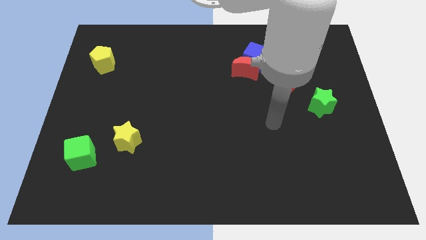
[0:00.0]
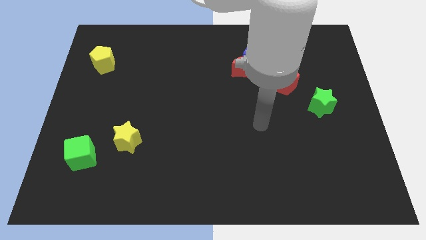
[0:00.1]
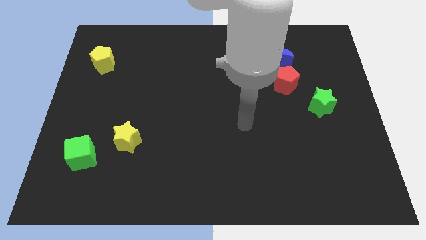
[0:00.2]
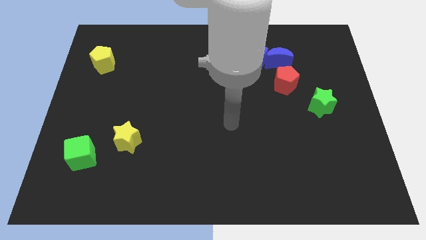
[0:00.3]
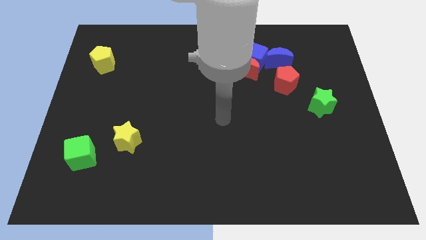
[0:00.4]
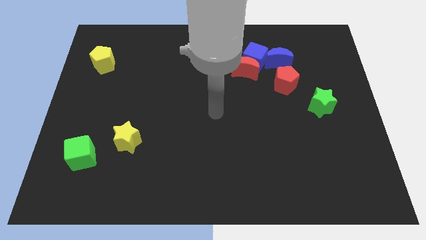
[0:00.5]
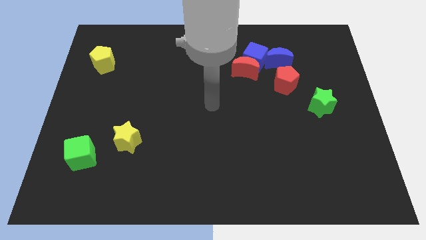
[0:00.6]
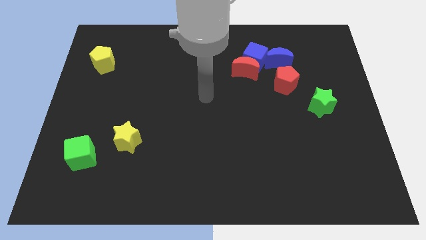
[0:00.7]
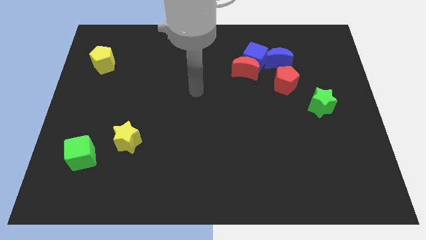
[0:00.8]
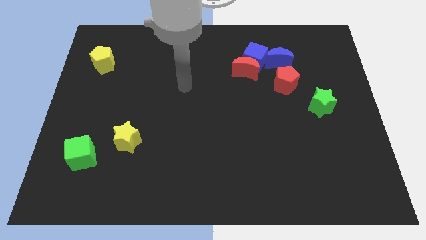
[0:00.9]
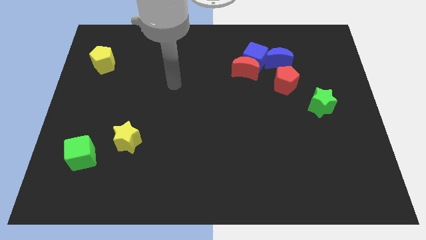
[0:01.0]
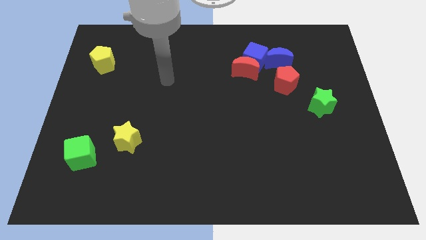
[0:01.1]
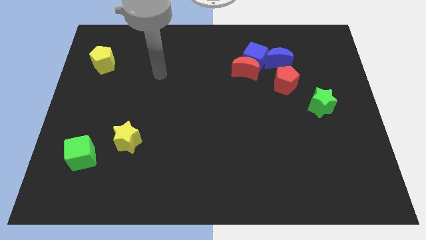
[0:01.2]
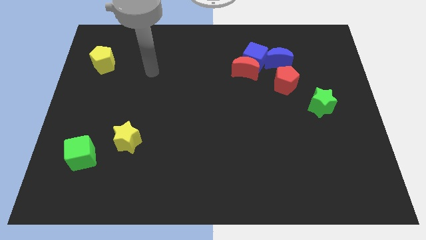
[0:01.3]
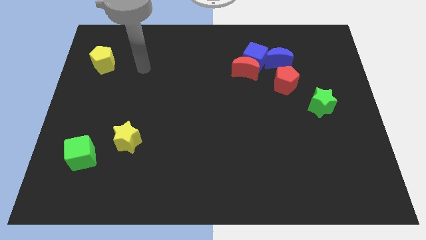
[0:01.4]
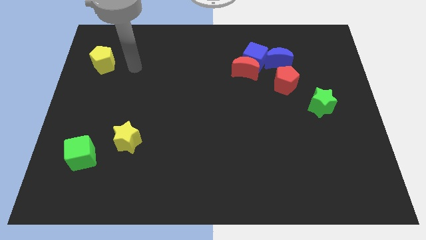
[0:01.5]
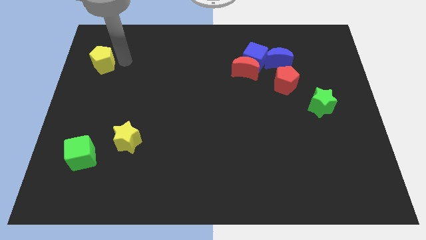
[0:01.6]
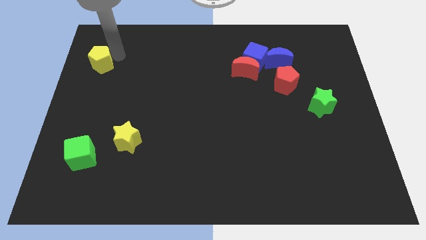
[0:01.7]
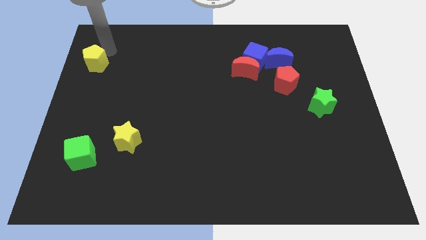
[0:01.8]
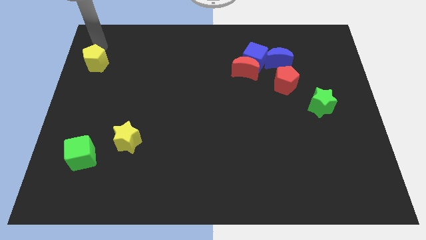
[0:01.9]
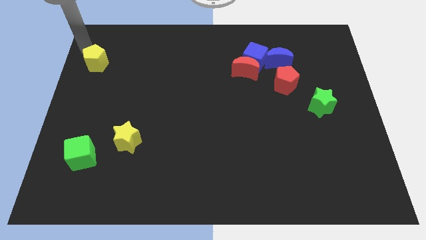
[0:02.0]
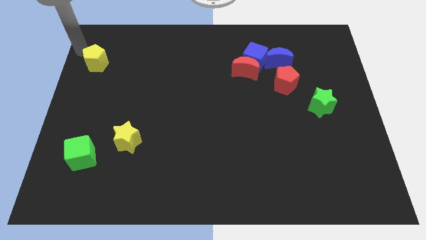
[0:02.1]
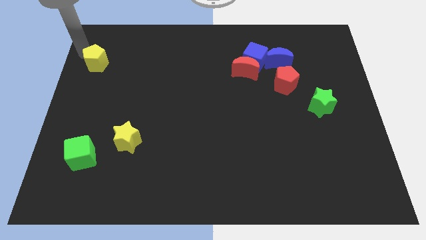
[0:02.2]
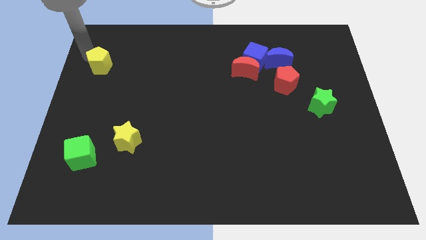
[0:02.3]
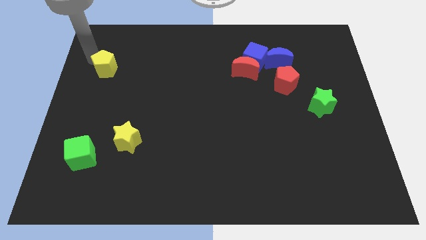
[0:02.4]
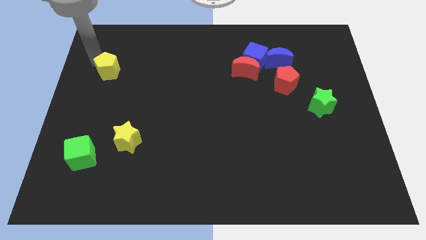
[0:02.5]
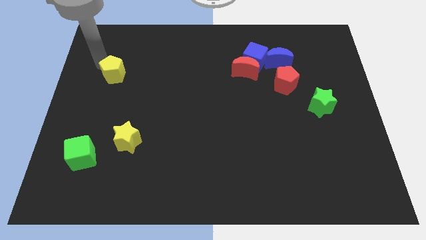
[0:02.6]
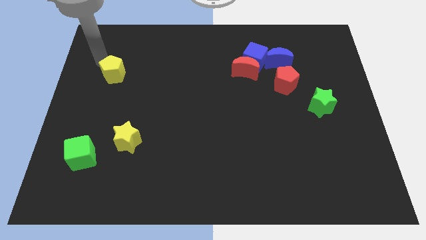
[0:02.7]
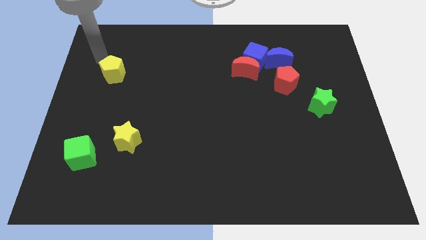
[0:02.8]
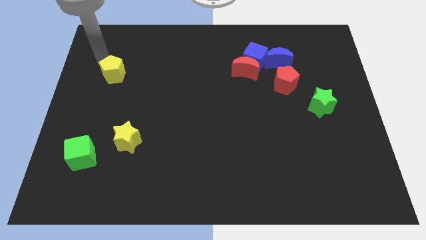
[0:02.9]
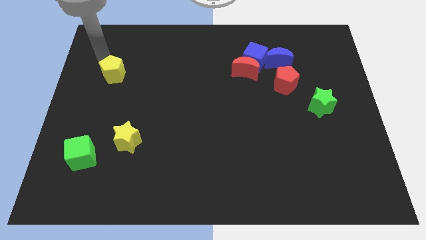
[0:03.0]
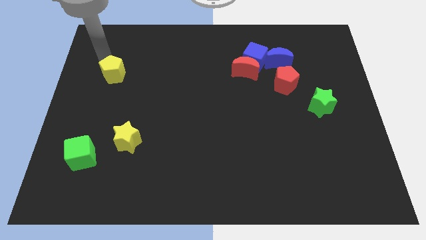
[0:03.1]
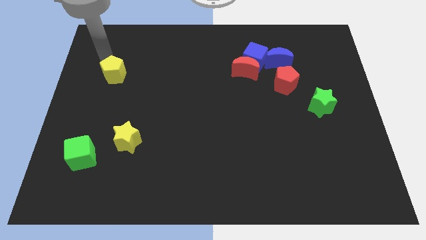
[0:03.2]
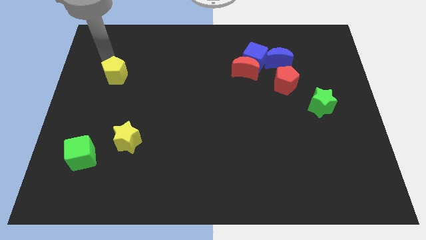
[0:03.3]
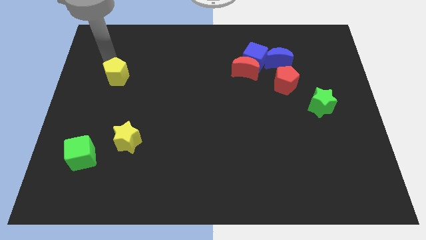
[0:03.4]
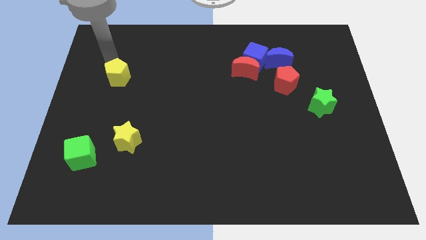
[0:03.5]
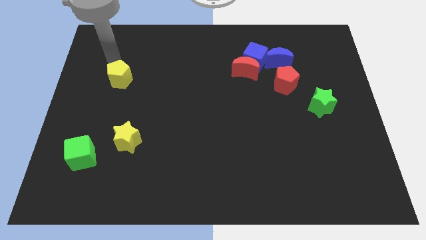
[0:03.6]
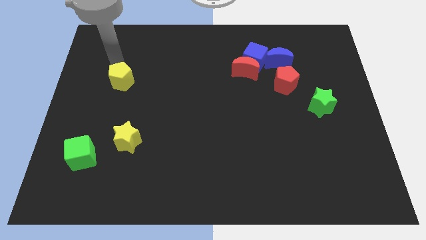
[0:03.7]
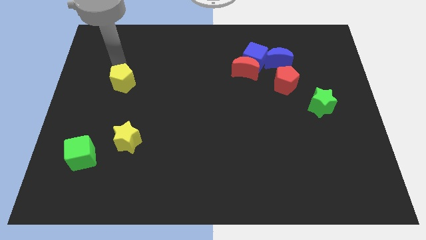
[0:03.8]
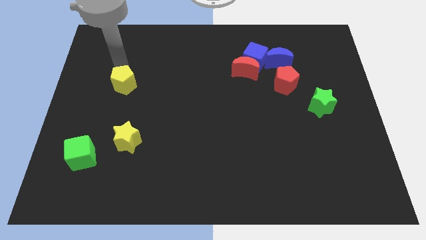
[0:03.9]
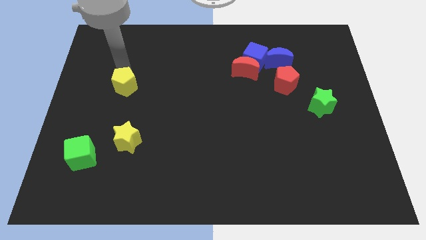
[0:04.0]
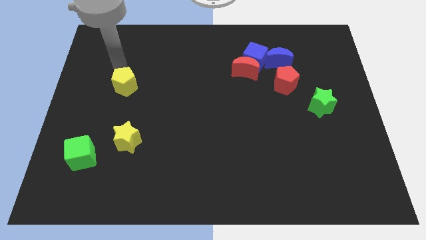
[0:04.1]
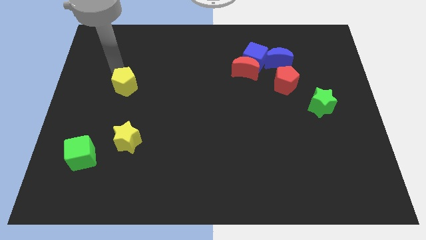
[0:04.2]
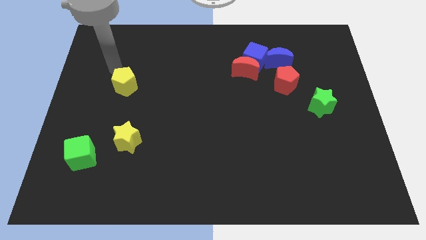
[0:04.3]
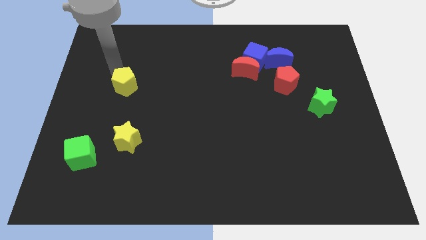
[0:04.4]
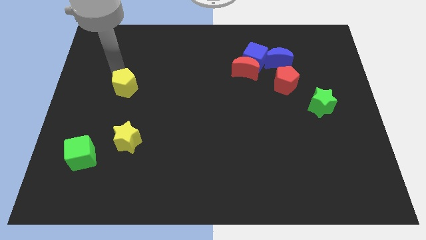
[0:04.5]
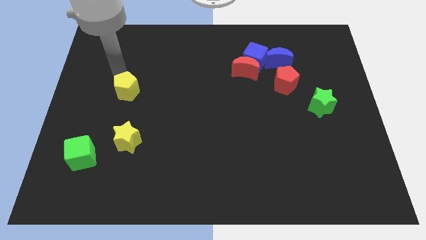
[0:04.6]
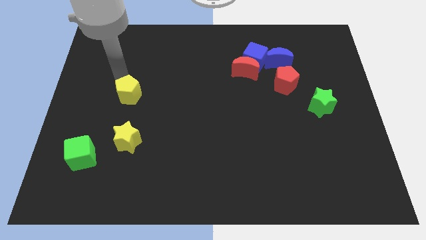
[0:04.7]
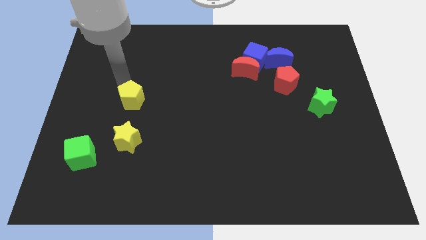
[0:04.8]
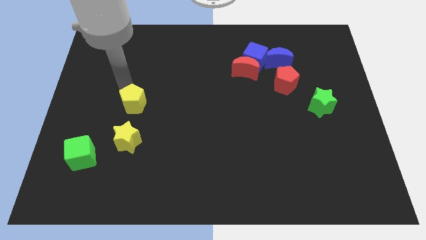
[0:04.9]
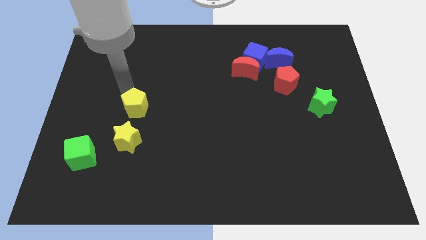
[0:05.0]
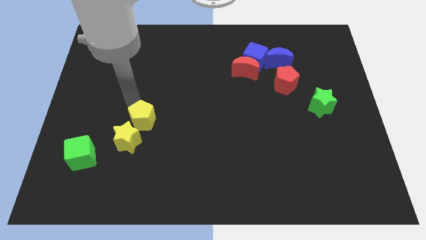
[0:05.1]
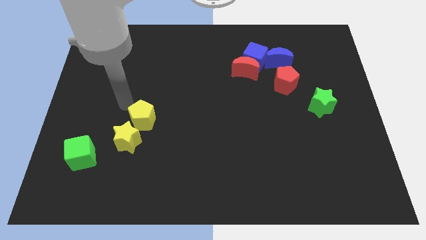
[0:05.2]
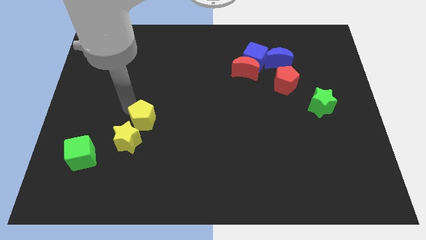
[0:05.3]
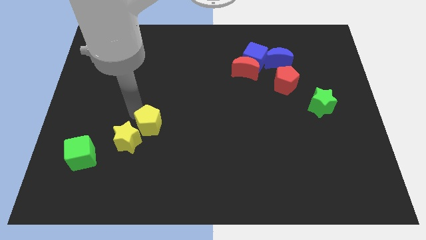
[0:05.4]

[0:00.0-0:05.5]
move the yellow pentagon just right of the yellow star
